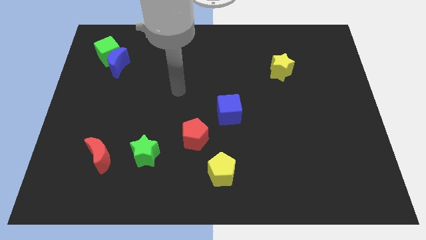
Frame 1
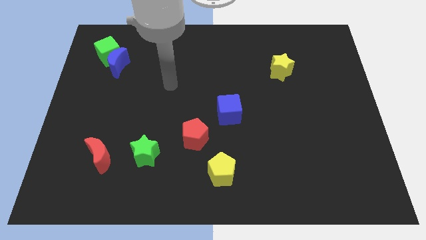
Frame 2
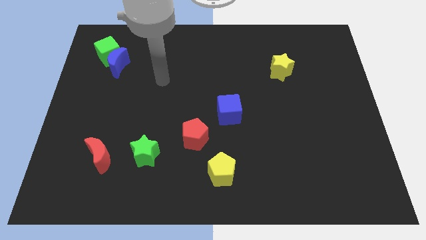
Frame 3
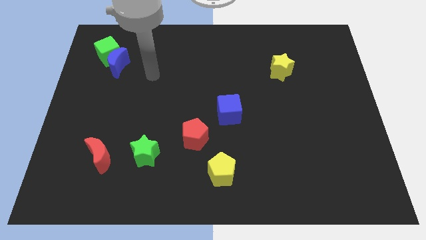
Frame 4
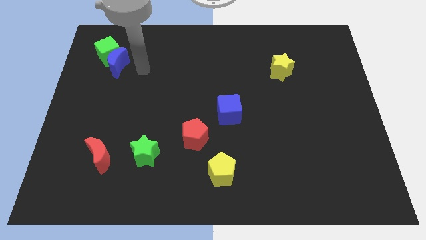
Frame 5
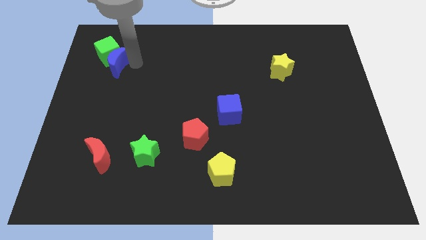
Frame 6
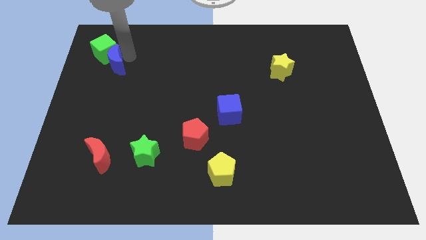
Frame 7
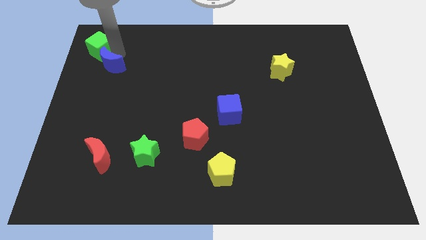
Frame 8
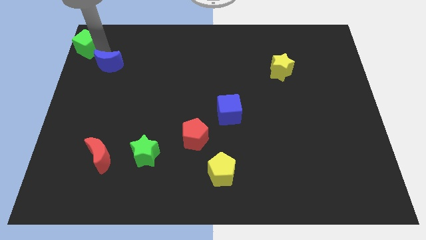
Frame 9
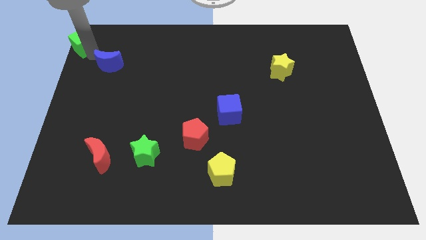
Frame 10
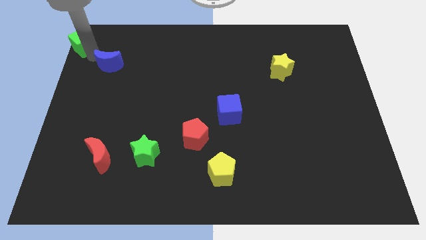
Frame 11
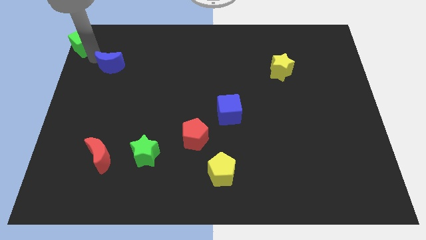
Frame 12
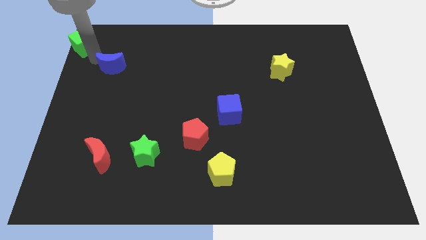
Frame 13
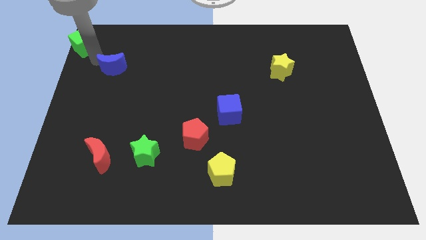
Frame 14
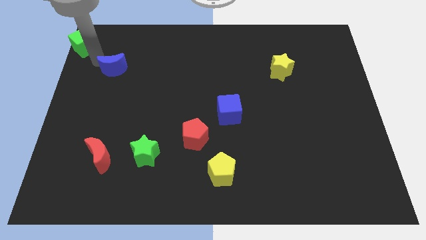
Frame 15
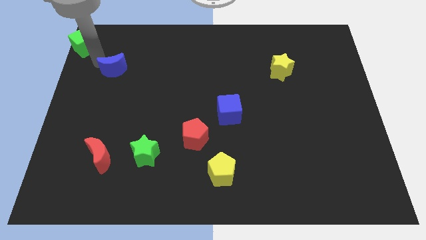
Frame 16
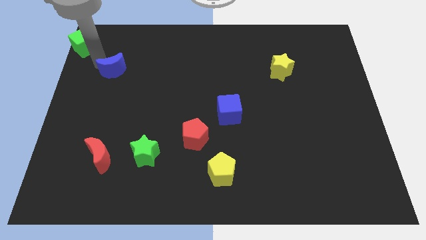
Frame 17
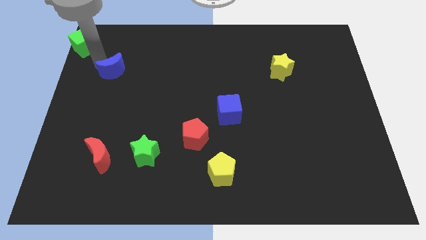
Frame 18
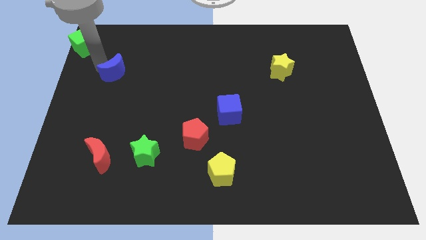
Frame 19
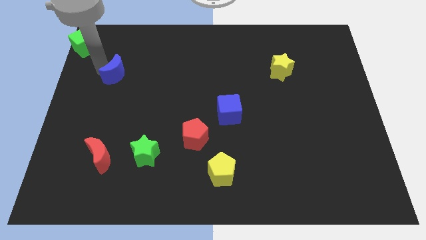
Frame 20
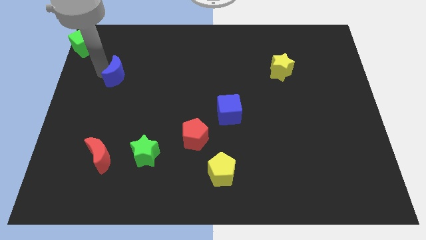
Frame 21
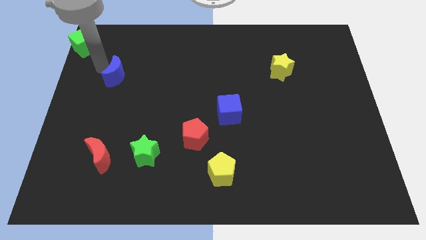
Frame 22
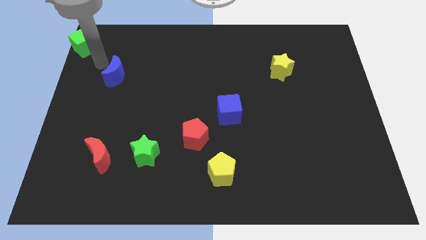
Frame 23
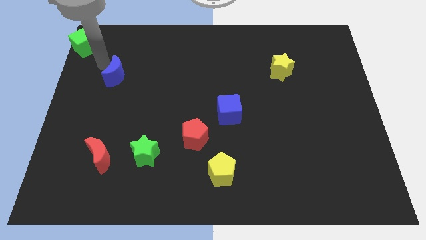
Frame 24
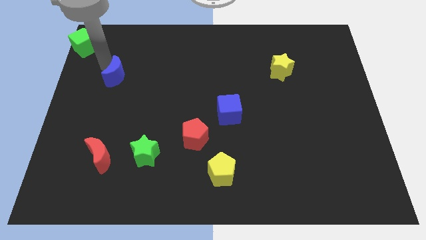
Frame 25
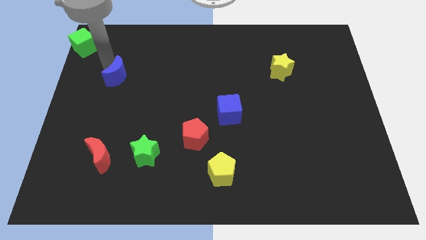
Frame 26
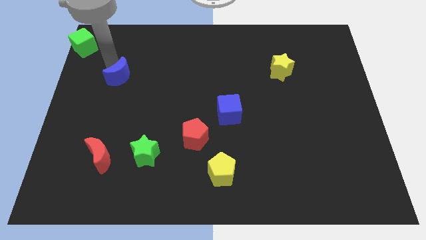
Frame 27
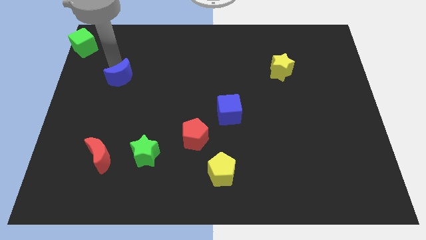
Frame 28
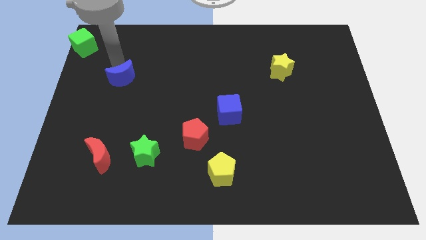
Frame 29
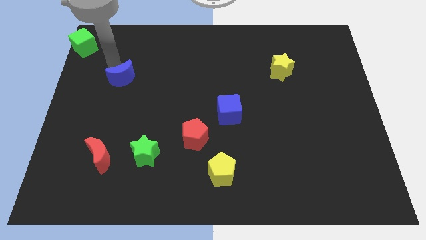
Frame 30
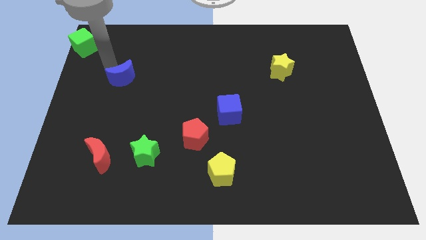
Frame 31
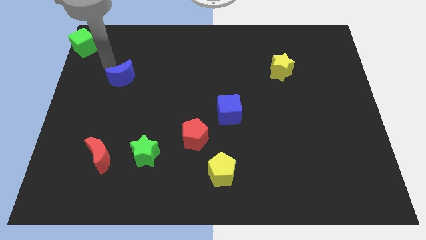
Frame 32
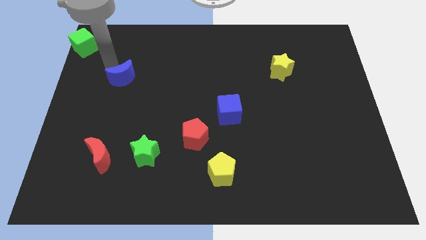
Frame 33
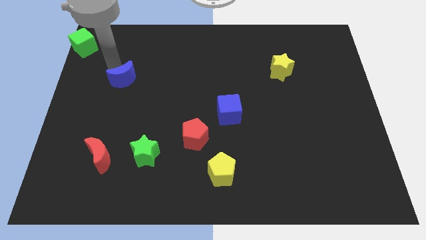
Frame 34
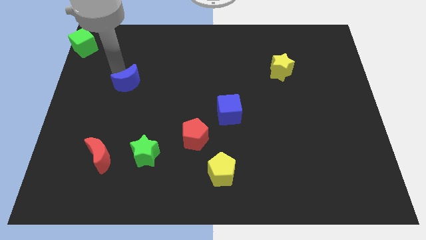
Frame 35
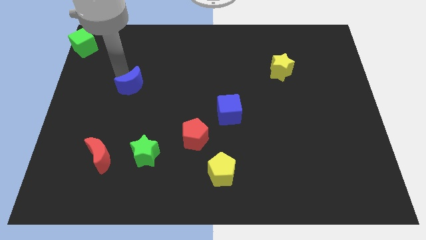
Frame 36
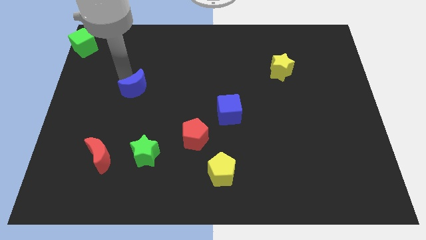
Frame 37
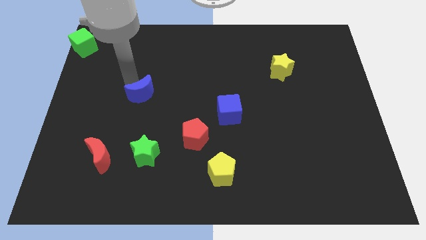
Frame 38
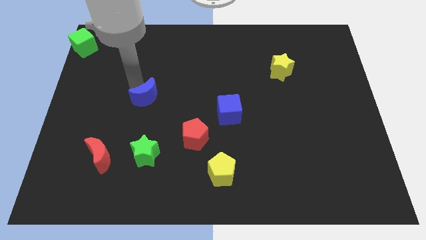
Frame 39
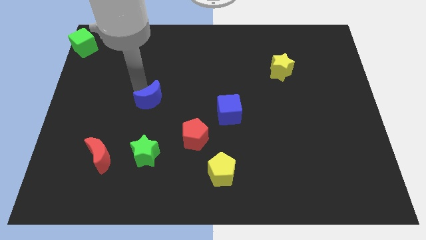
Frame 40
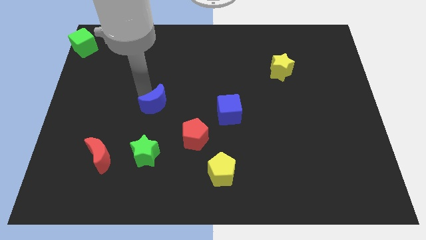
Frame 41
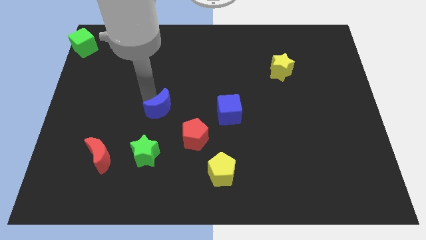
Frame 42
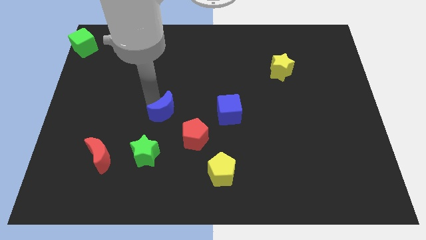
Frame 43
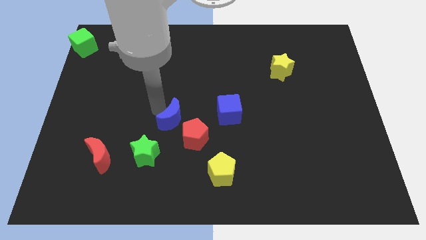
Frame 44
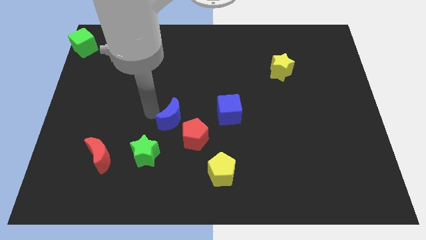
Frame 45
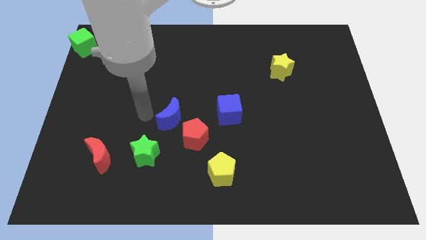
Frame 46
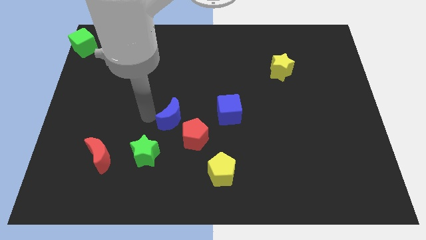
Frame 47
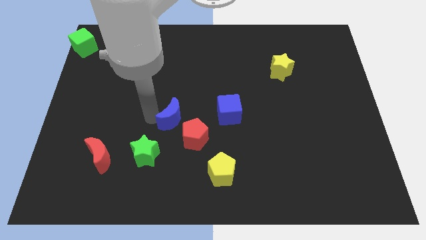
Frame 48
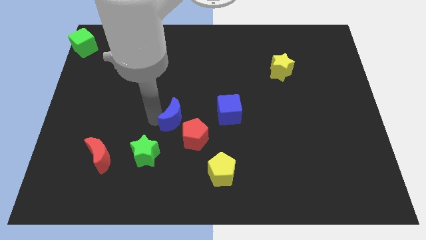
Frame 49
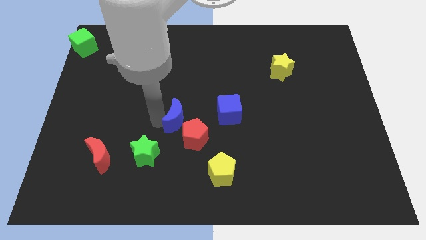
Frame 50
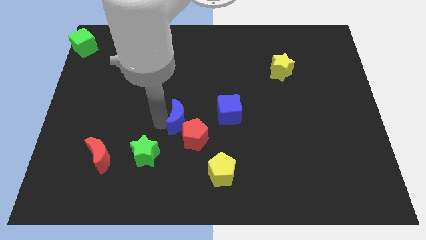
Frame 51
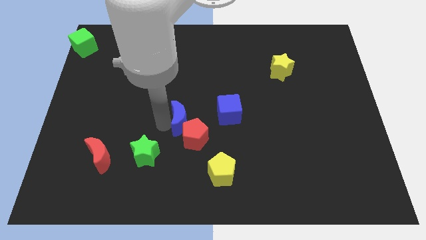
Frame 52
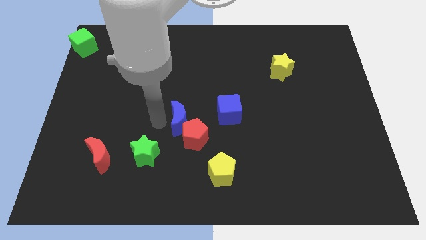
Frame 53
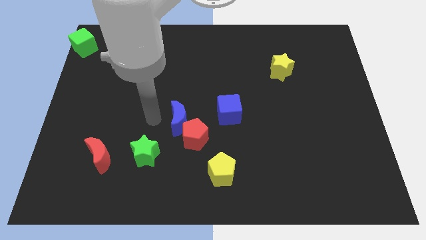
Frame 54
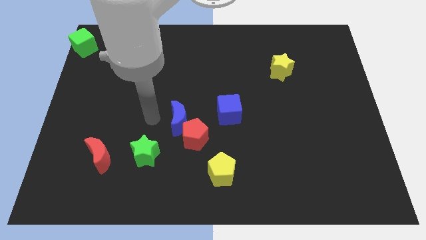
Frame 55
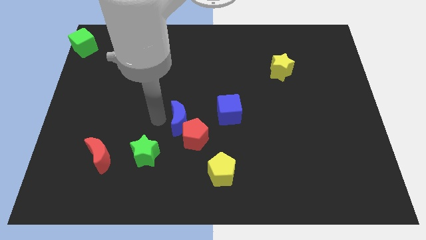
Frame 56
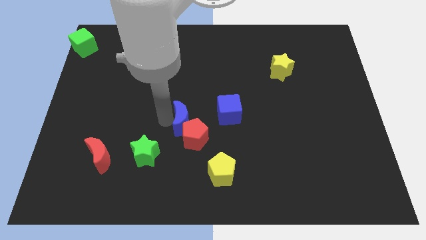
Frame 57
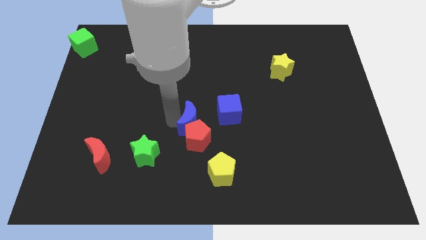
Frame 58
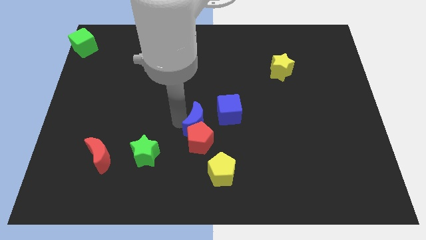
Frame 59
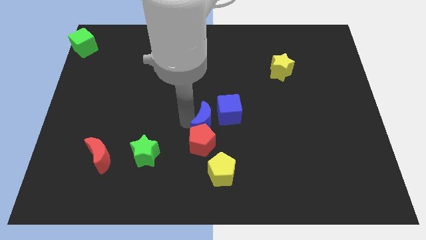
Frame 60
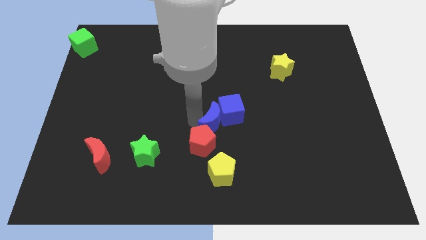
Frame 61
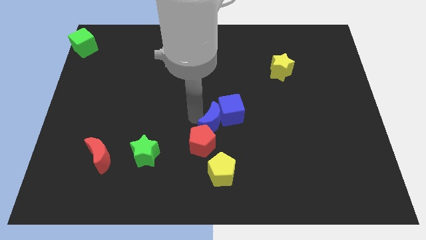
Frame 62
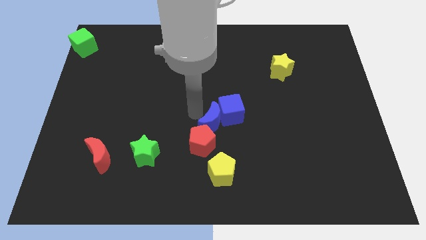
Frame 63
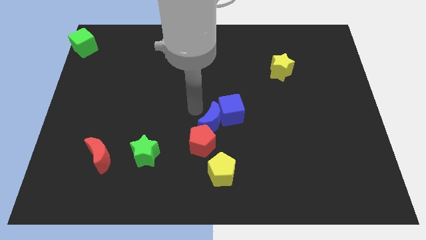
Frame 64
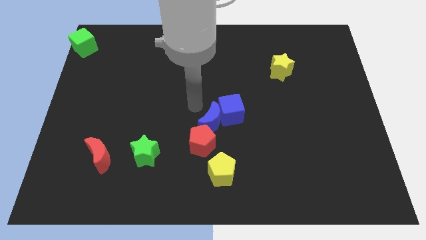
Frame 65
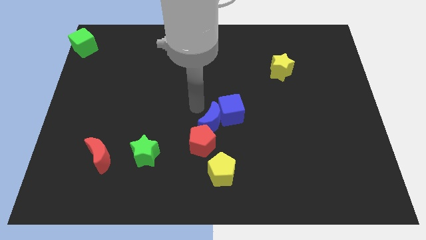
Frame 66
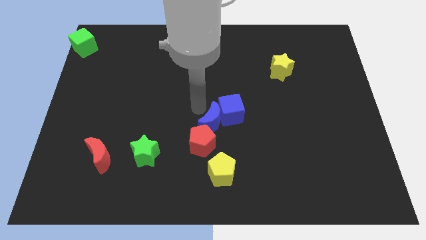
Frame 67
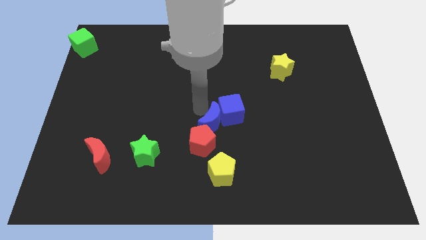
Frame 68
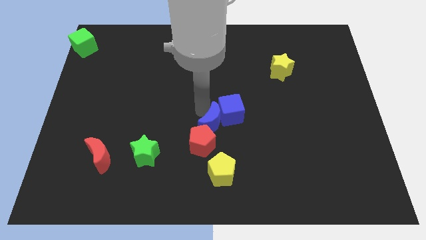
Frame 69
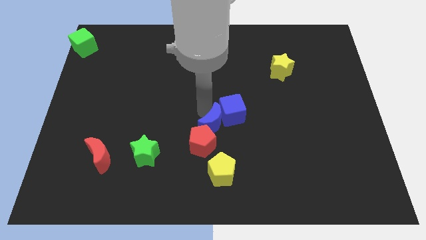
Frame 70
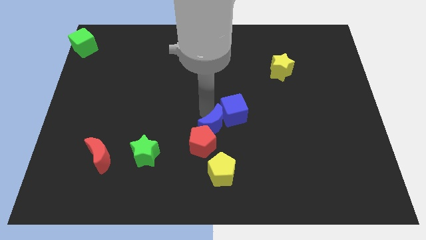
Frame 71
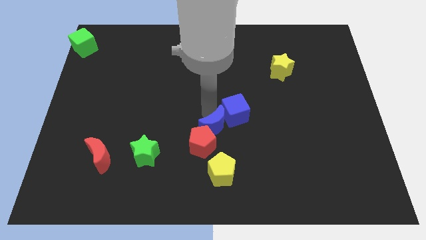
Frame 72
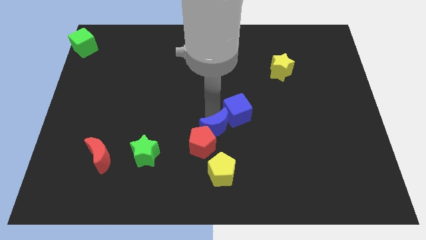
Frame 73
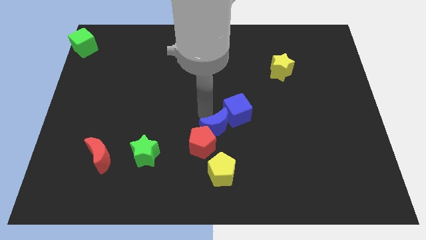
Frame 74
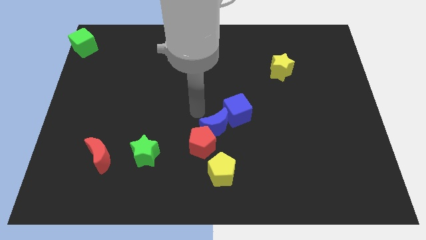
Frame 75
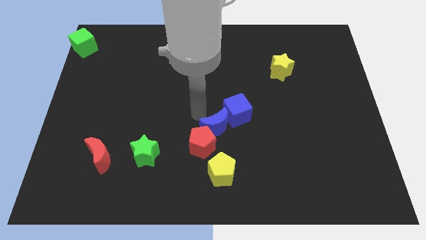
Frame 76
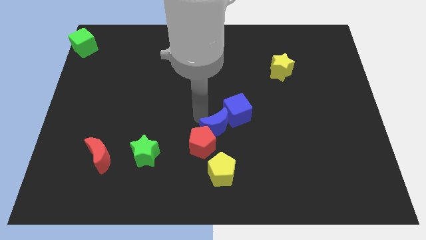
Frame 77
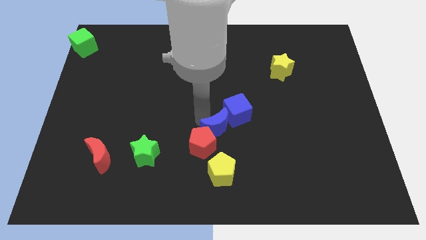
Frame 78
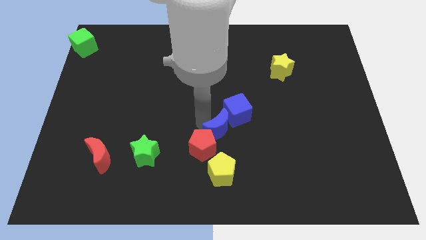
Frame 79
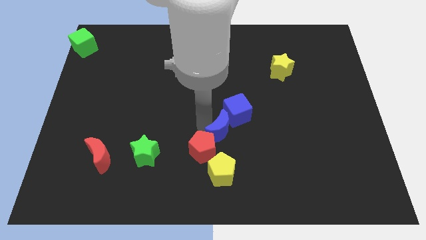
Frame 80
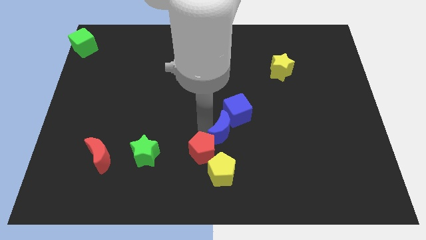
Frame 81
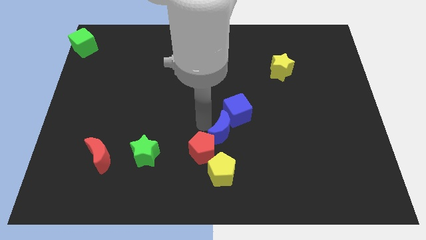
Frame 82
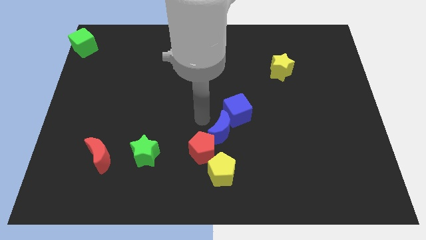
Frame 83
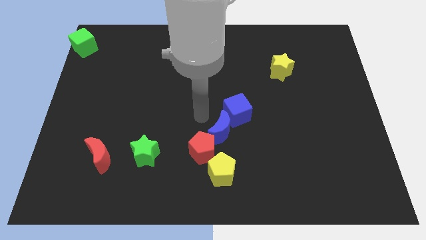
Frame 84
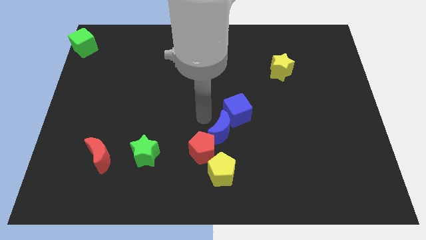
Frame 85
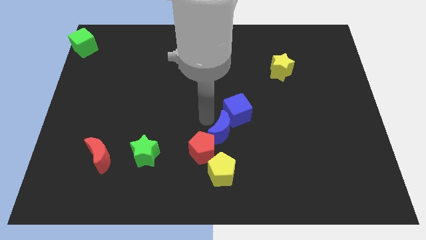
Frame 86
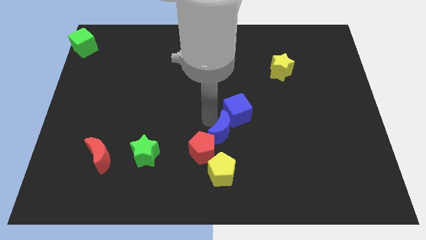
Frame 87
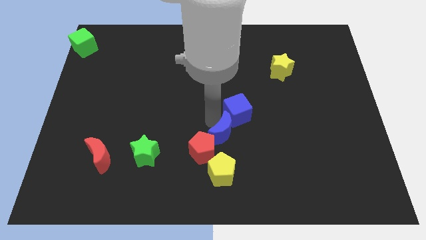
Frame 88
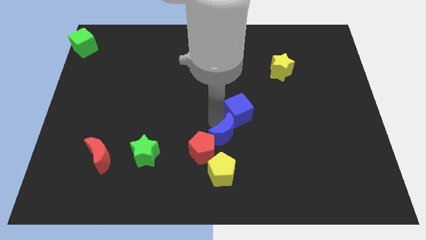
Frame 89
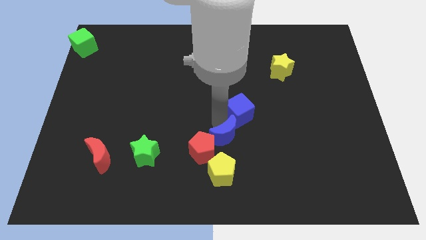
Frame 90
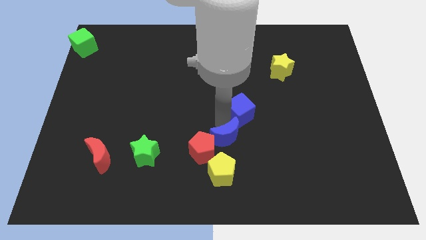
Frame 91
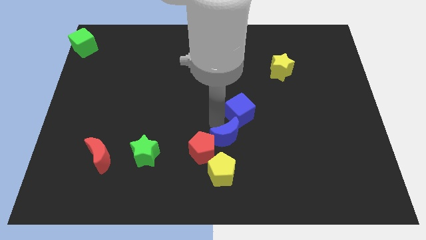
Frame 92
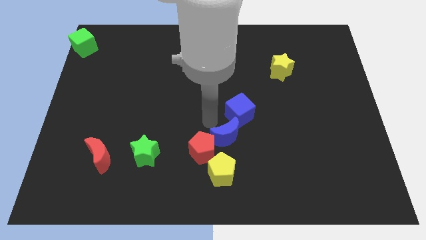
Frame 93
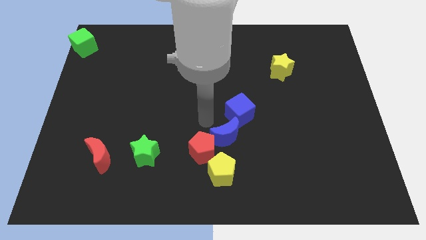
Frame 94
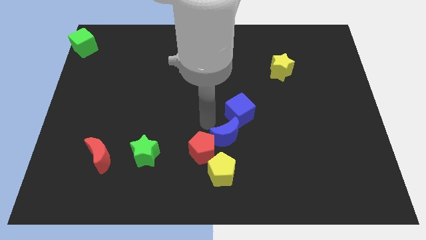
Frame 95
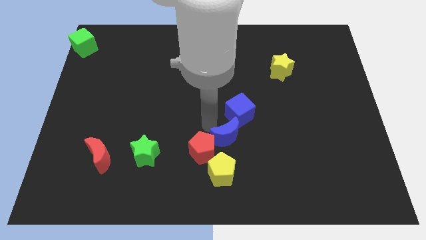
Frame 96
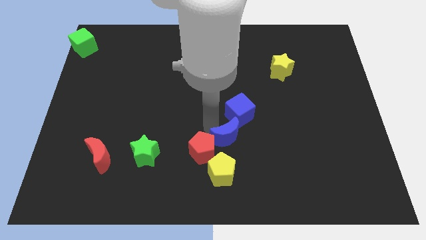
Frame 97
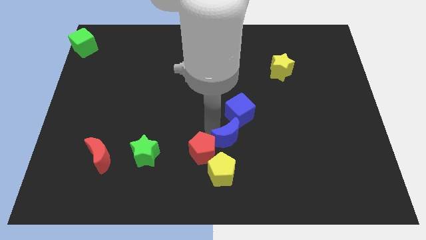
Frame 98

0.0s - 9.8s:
put the blue moon to the top right of the yellow pentagon
